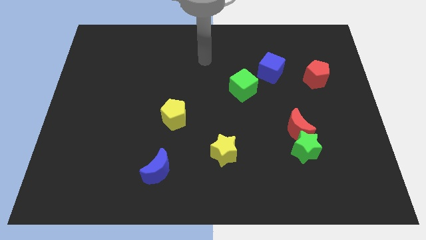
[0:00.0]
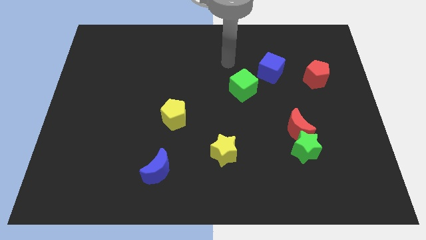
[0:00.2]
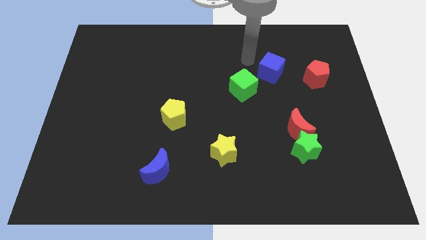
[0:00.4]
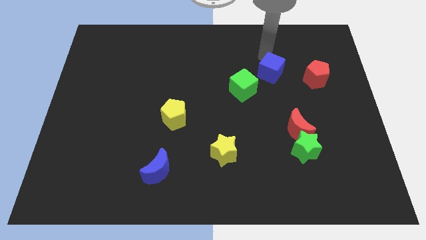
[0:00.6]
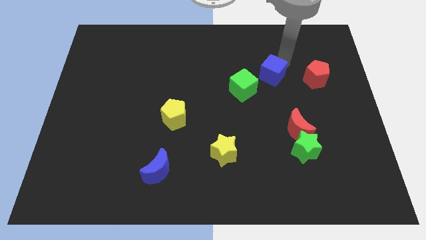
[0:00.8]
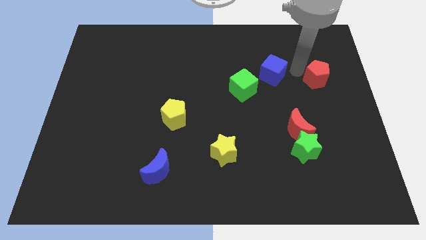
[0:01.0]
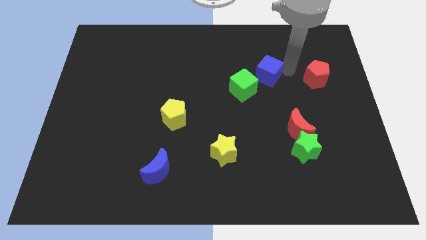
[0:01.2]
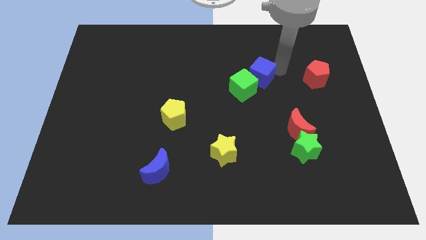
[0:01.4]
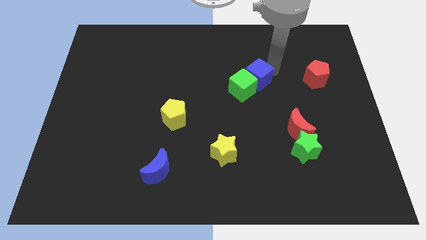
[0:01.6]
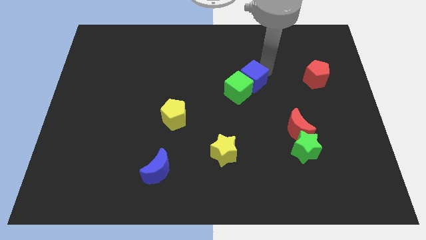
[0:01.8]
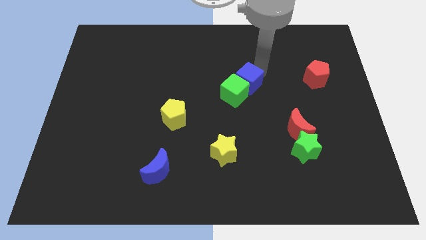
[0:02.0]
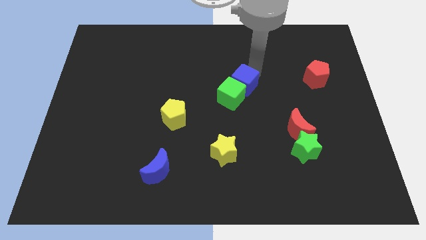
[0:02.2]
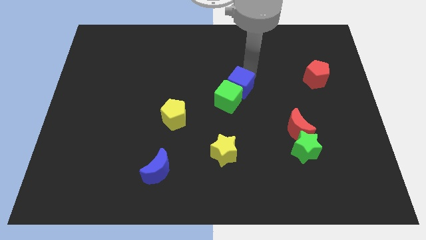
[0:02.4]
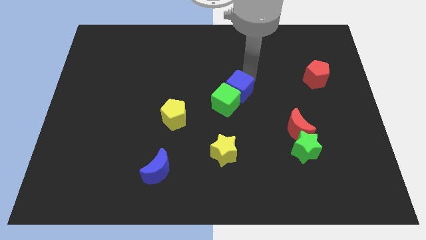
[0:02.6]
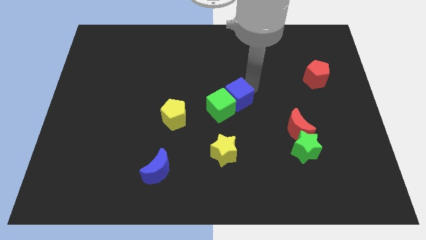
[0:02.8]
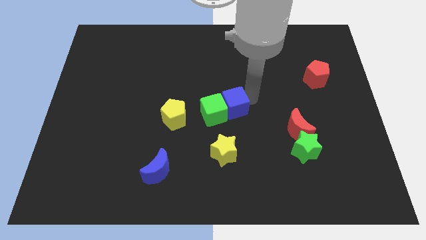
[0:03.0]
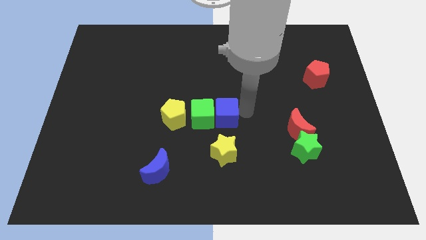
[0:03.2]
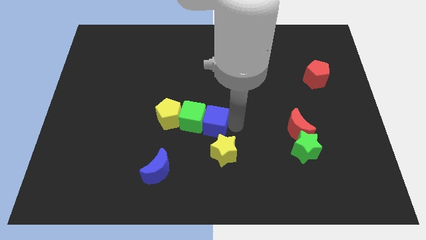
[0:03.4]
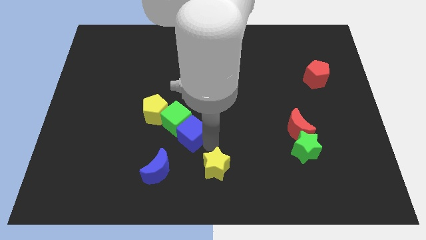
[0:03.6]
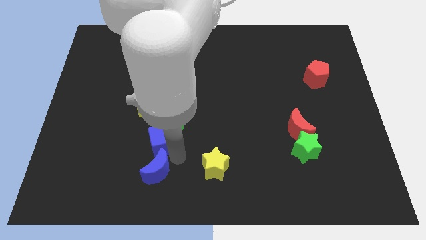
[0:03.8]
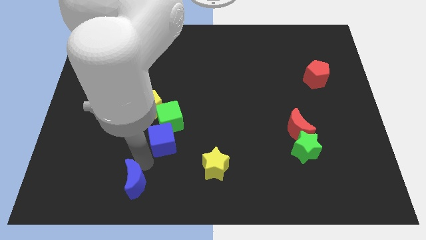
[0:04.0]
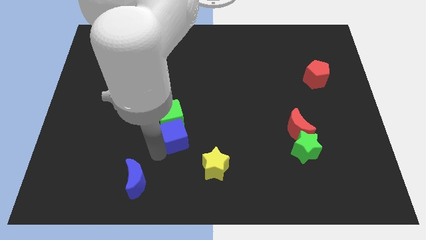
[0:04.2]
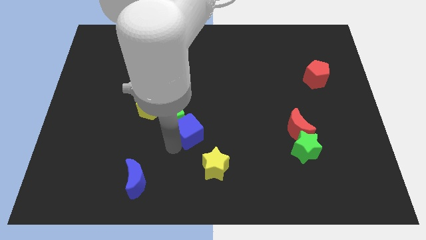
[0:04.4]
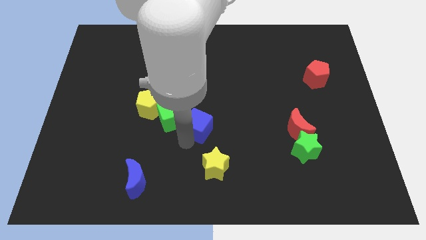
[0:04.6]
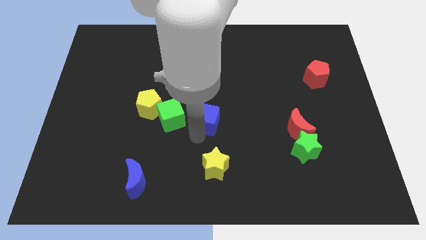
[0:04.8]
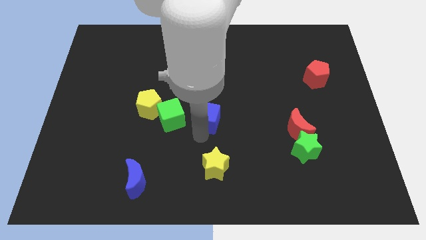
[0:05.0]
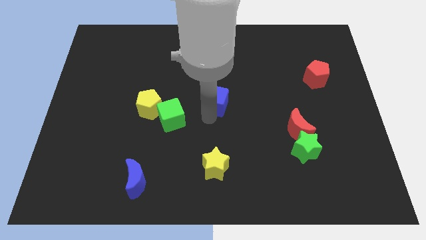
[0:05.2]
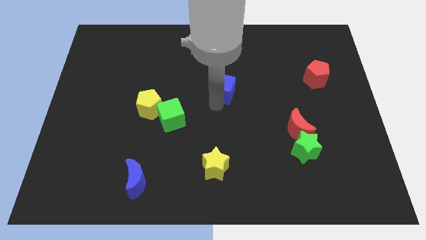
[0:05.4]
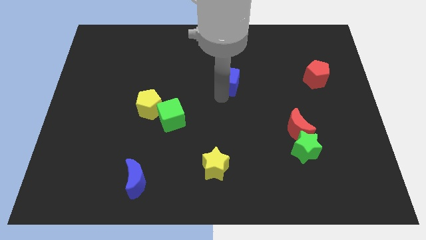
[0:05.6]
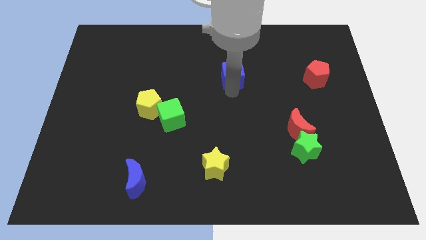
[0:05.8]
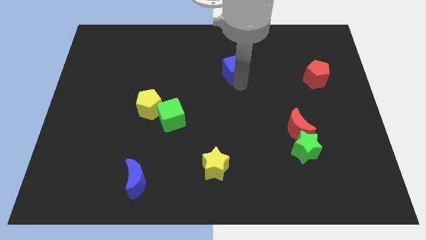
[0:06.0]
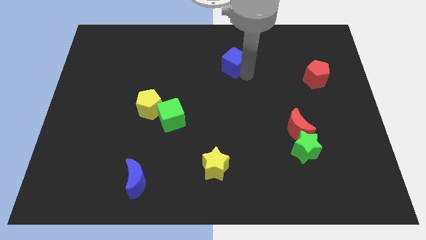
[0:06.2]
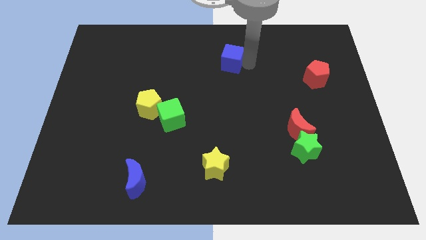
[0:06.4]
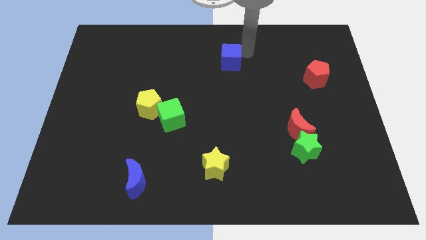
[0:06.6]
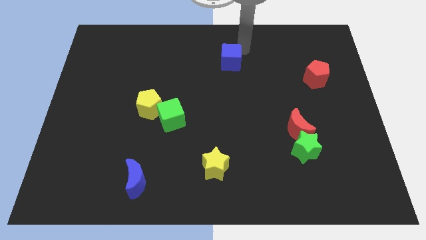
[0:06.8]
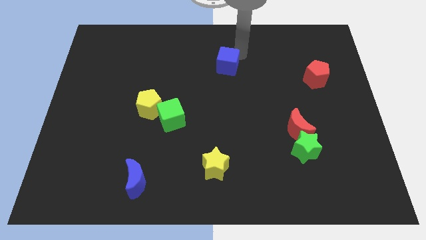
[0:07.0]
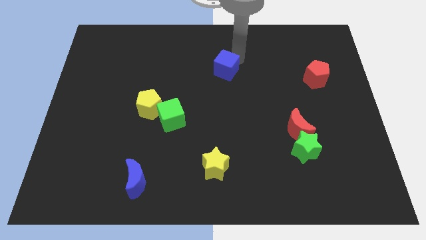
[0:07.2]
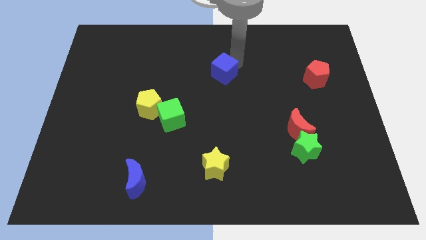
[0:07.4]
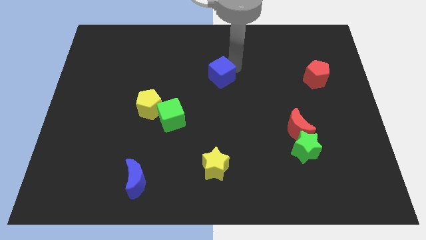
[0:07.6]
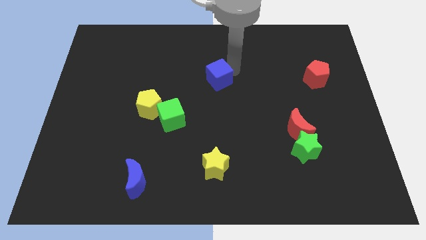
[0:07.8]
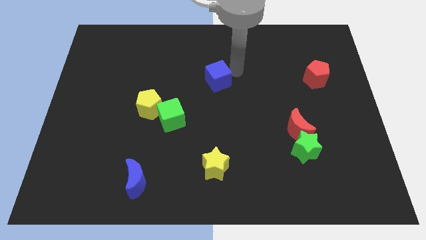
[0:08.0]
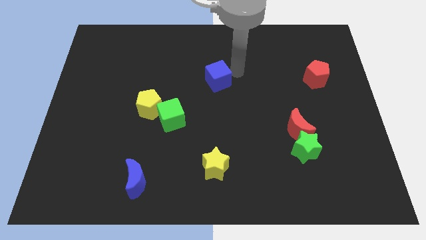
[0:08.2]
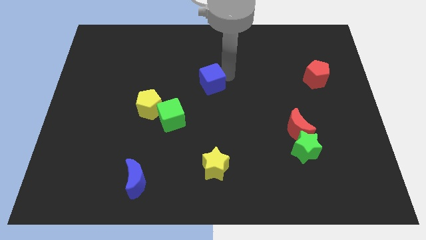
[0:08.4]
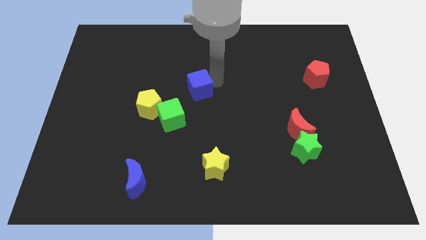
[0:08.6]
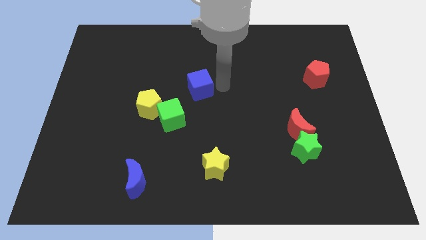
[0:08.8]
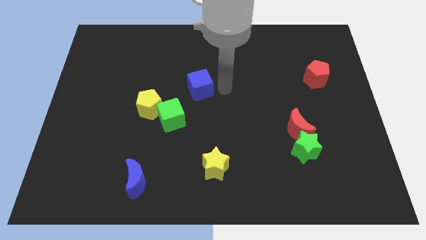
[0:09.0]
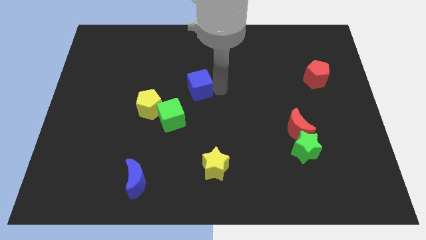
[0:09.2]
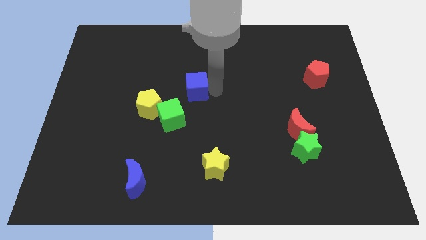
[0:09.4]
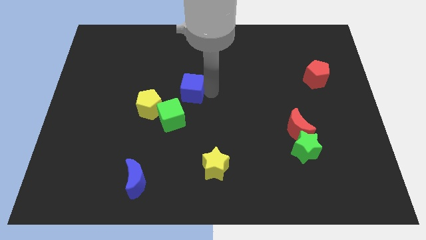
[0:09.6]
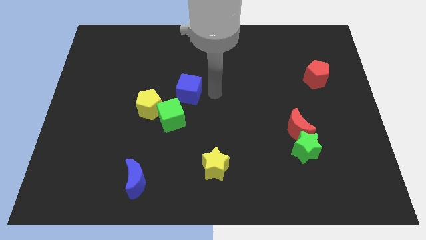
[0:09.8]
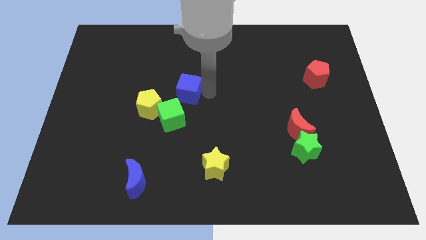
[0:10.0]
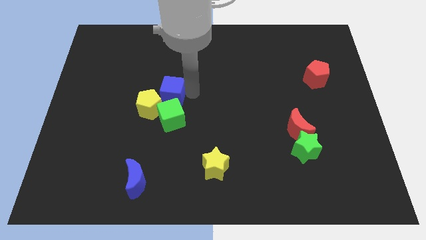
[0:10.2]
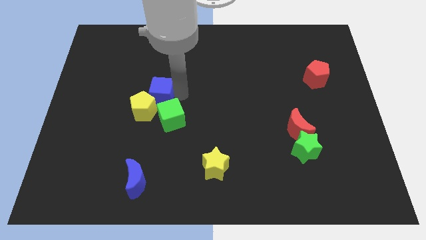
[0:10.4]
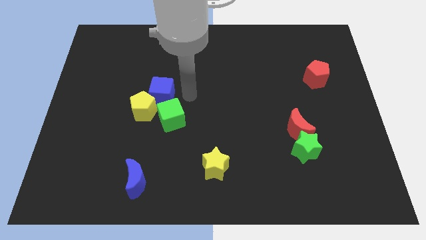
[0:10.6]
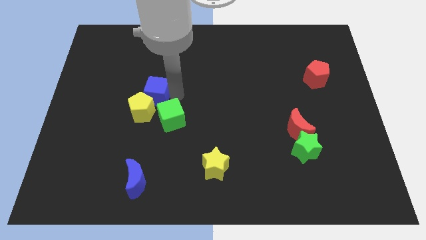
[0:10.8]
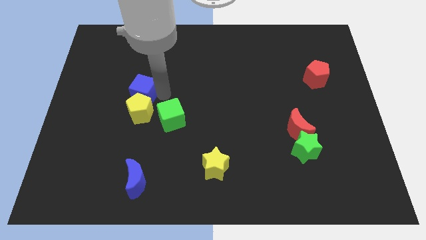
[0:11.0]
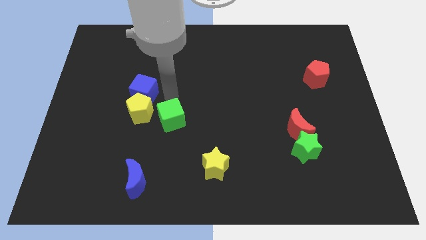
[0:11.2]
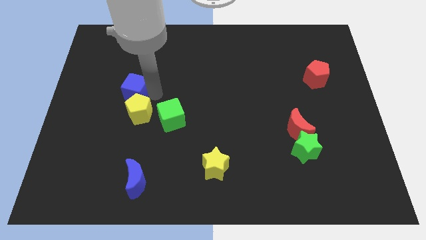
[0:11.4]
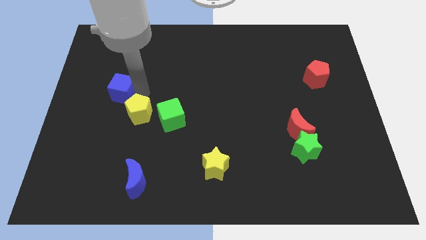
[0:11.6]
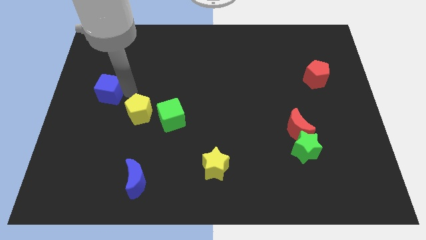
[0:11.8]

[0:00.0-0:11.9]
put the blue cube to the left side

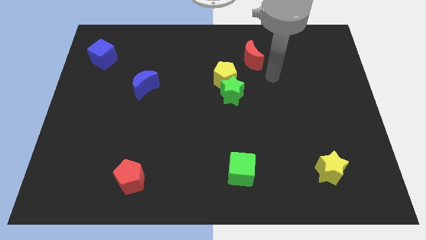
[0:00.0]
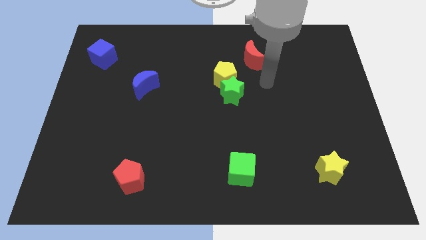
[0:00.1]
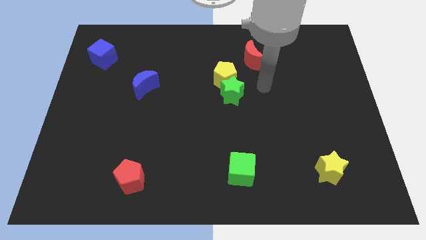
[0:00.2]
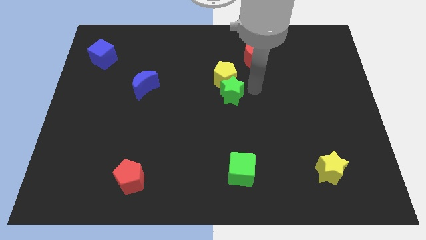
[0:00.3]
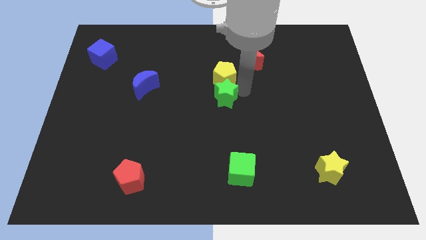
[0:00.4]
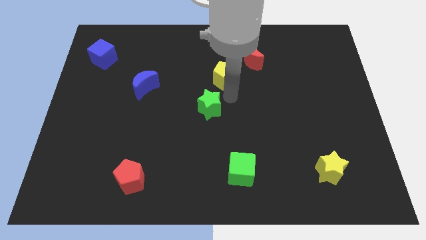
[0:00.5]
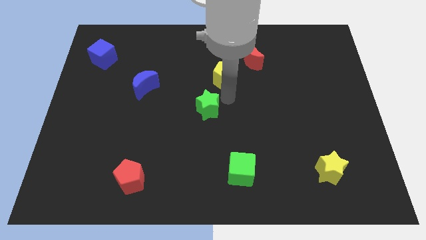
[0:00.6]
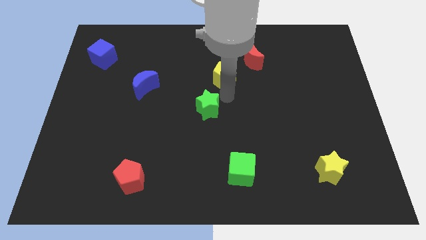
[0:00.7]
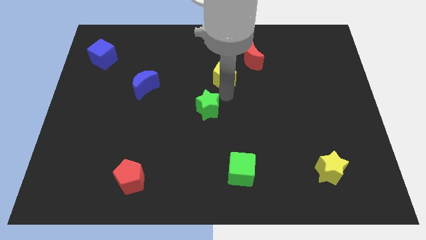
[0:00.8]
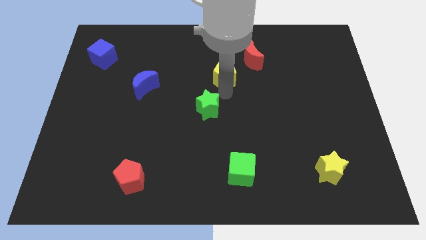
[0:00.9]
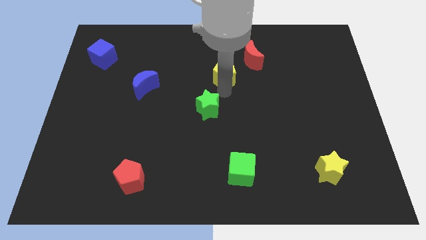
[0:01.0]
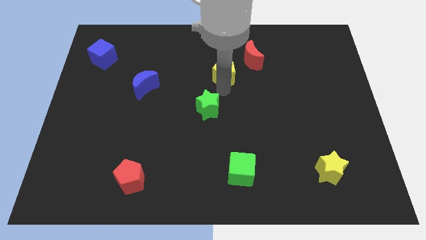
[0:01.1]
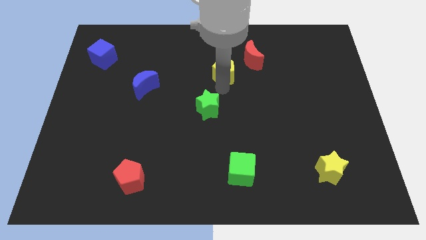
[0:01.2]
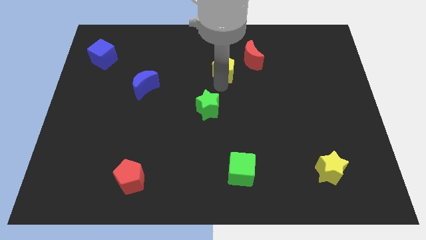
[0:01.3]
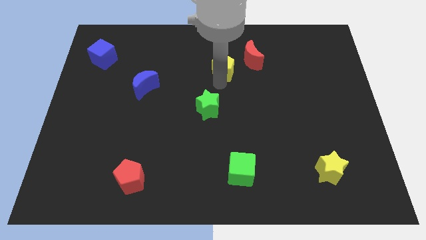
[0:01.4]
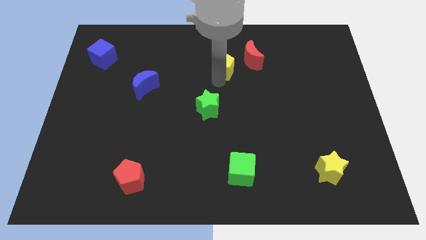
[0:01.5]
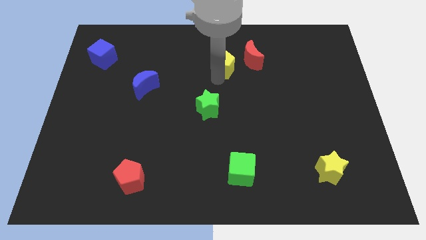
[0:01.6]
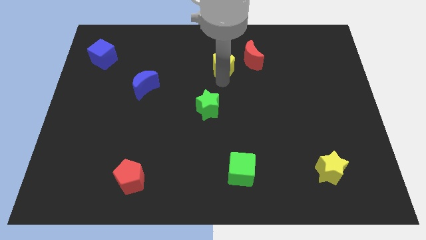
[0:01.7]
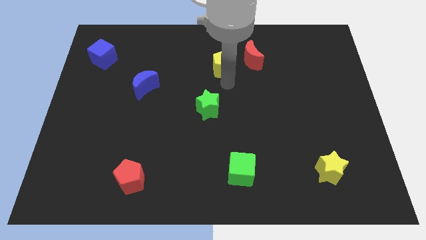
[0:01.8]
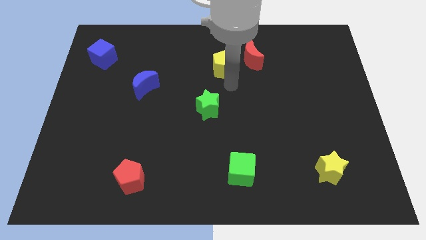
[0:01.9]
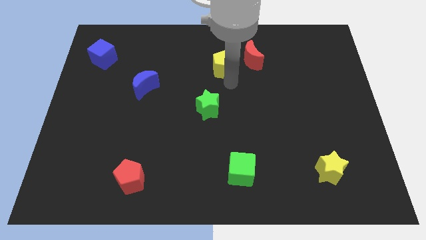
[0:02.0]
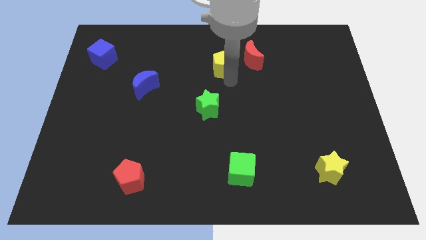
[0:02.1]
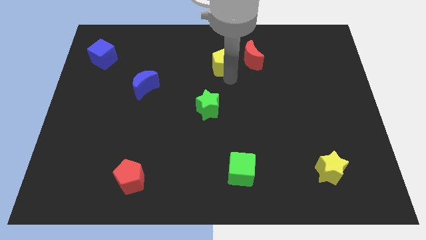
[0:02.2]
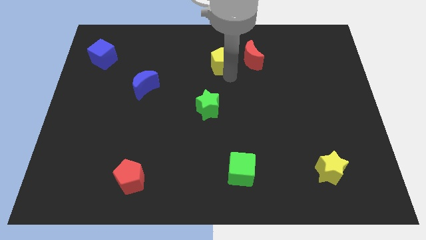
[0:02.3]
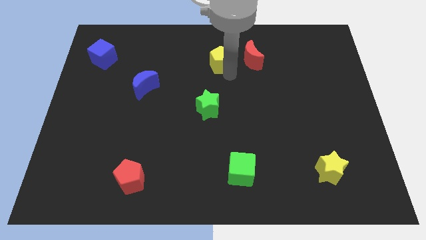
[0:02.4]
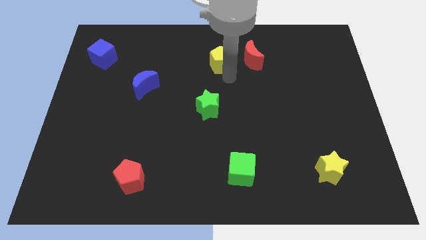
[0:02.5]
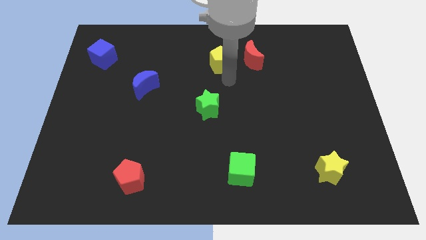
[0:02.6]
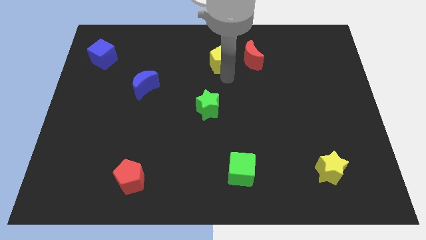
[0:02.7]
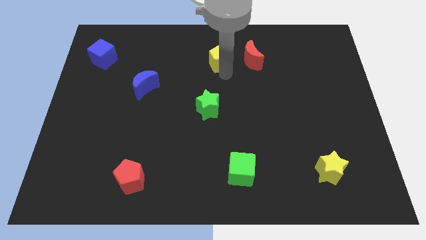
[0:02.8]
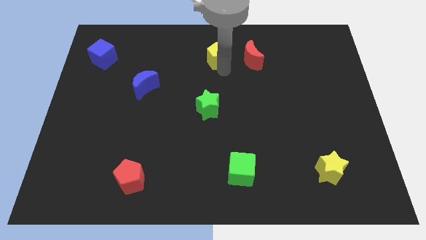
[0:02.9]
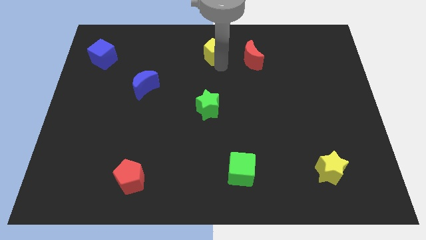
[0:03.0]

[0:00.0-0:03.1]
slide the yellow pentagon to the towards your base
